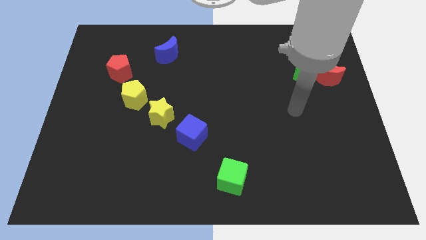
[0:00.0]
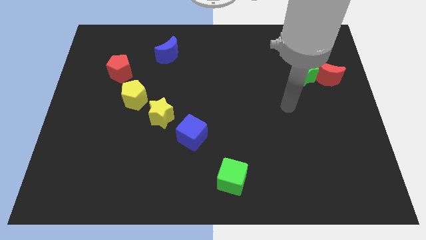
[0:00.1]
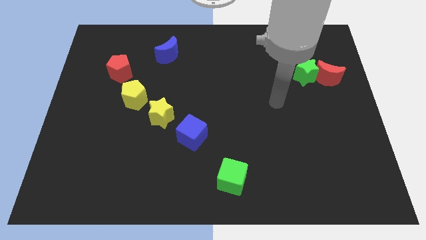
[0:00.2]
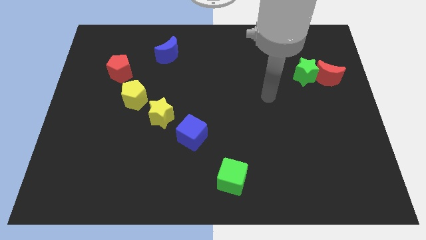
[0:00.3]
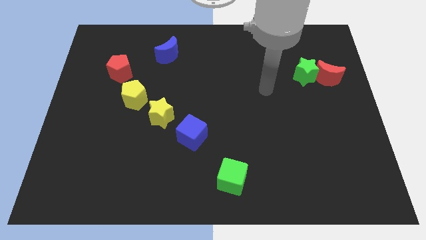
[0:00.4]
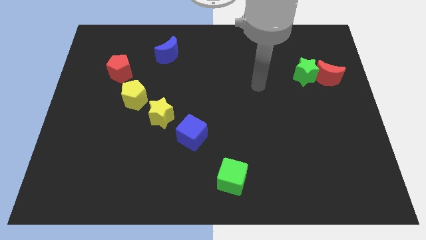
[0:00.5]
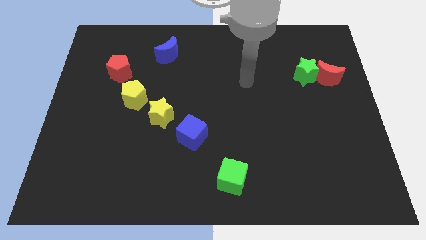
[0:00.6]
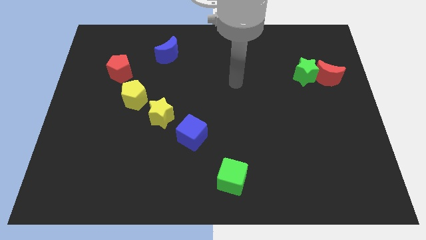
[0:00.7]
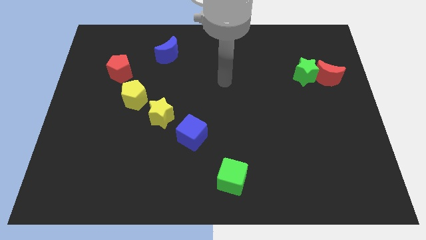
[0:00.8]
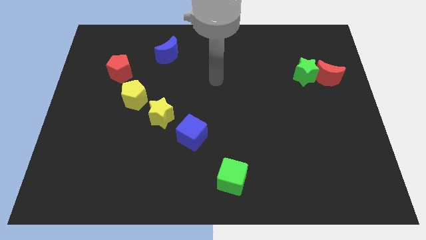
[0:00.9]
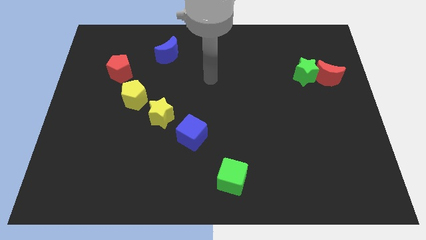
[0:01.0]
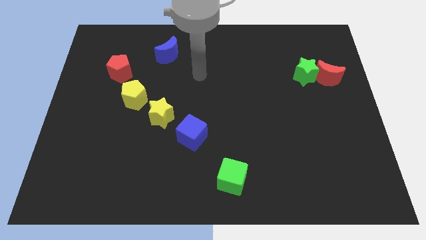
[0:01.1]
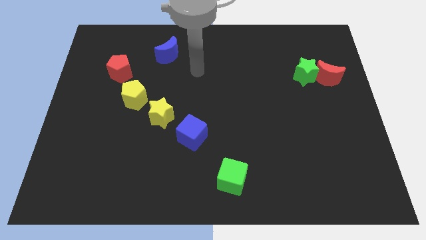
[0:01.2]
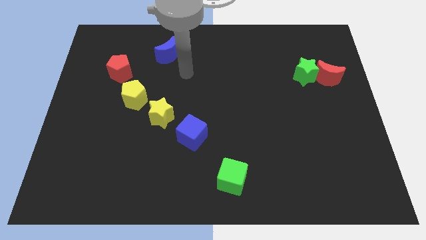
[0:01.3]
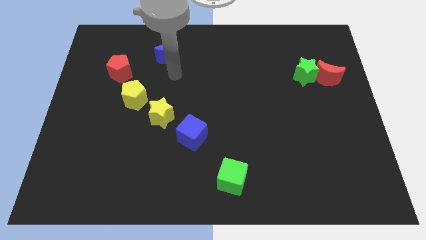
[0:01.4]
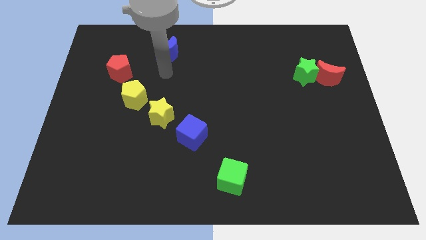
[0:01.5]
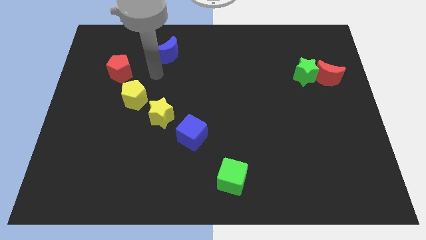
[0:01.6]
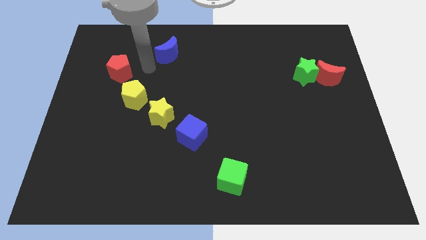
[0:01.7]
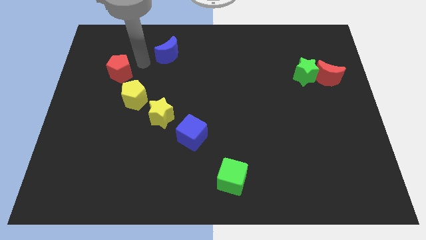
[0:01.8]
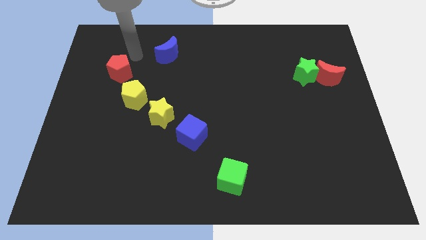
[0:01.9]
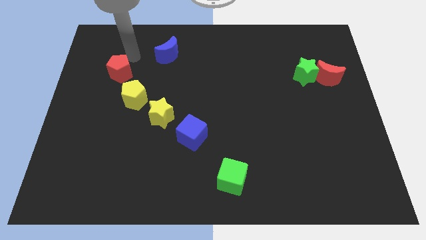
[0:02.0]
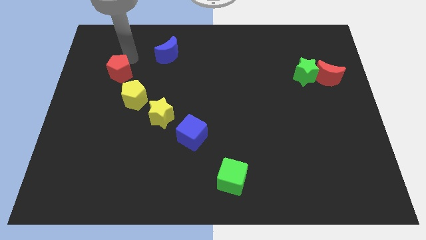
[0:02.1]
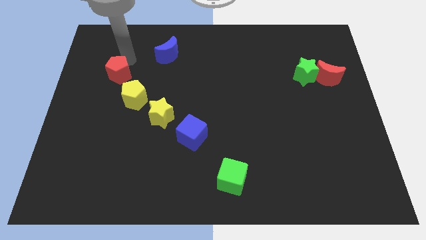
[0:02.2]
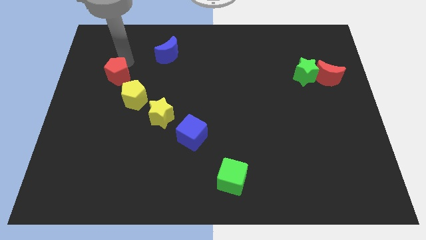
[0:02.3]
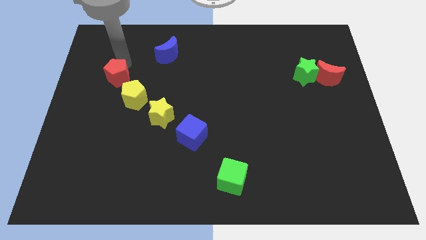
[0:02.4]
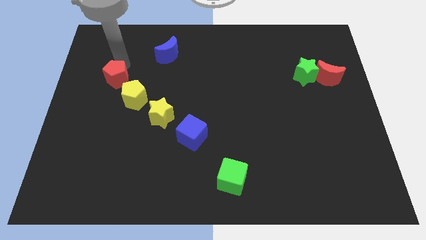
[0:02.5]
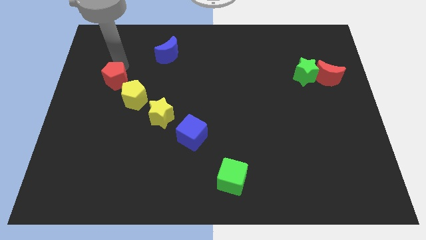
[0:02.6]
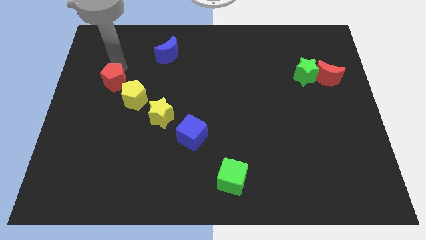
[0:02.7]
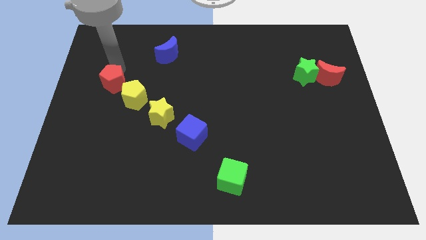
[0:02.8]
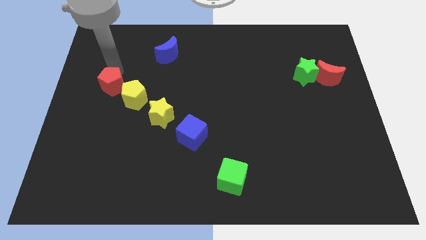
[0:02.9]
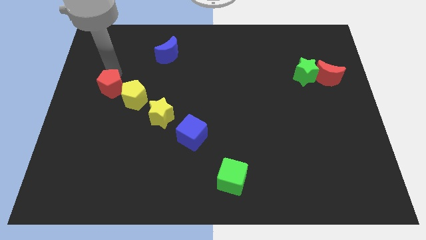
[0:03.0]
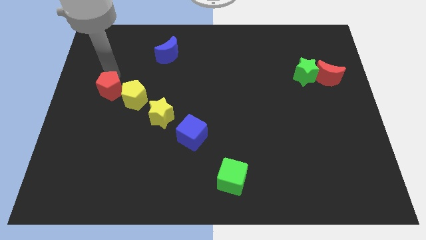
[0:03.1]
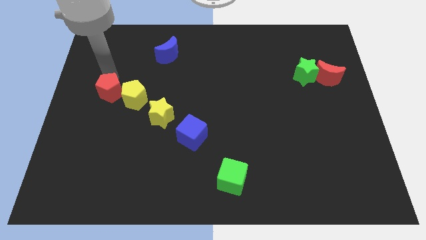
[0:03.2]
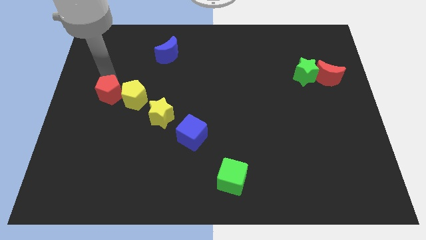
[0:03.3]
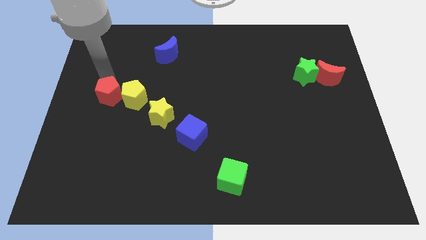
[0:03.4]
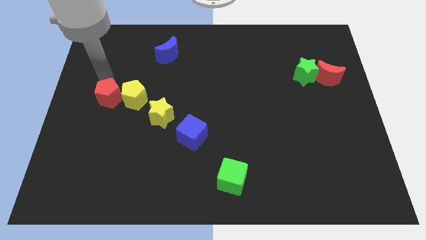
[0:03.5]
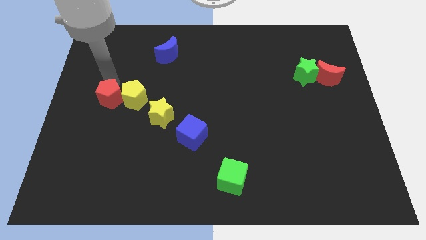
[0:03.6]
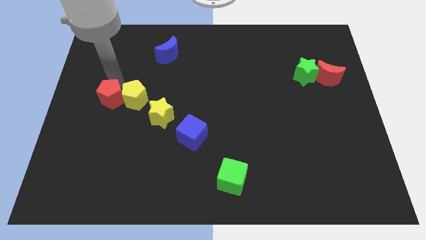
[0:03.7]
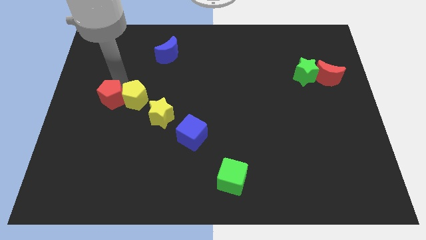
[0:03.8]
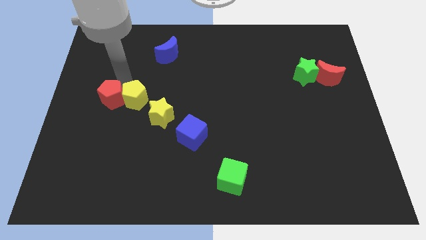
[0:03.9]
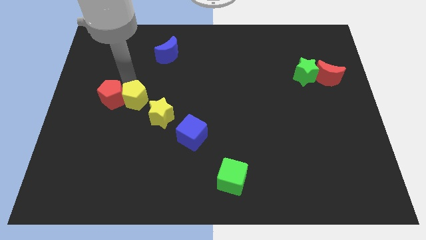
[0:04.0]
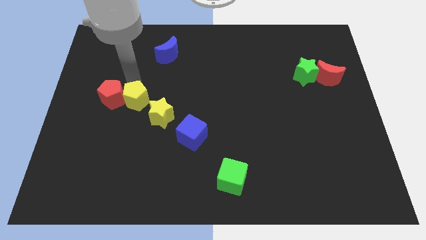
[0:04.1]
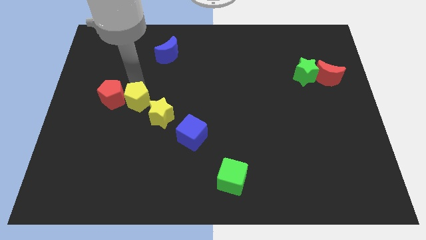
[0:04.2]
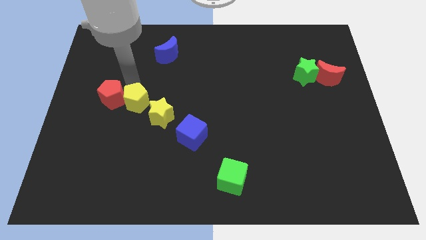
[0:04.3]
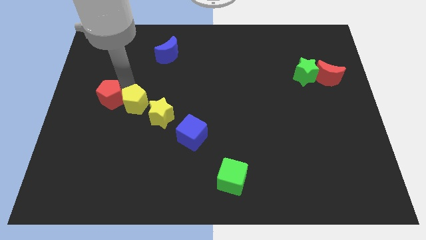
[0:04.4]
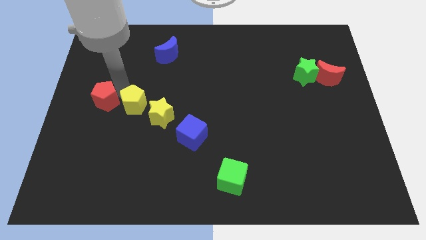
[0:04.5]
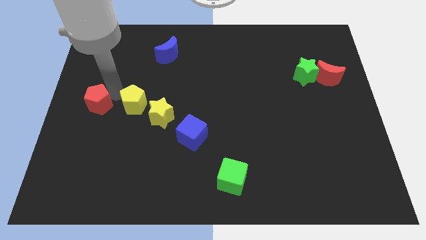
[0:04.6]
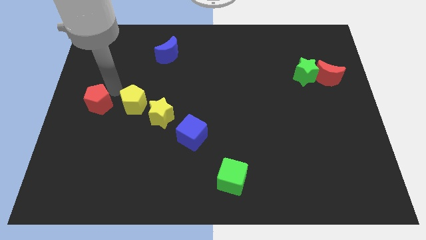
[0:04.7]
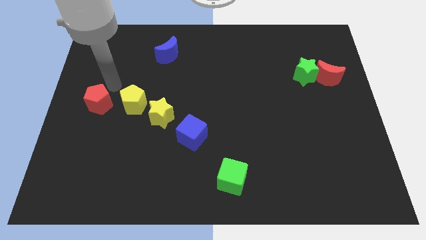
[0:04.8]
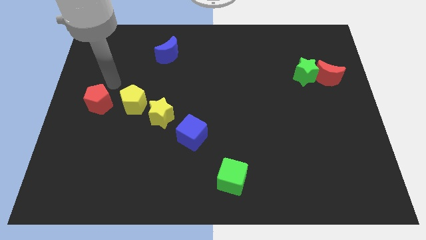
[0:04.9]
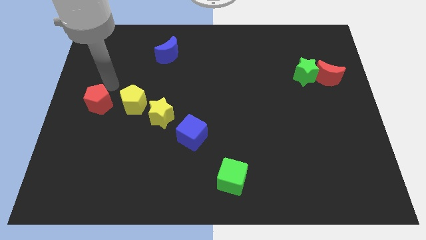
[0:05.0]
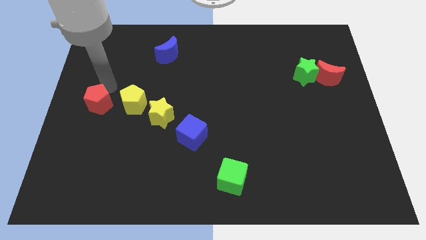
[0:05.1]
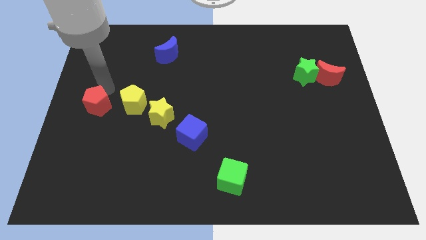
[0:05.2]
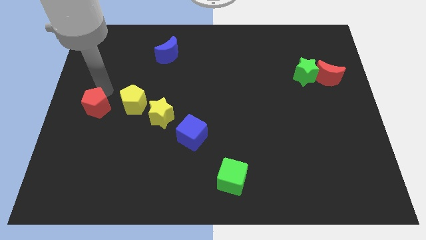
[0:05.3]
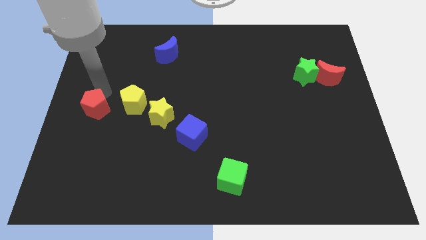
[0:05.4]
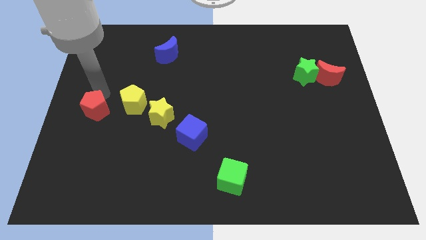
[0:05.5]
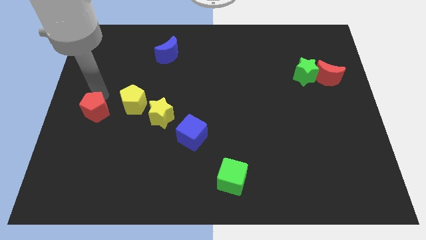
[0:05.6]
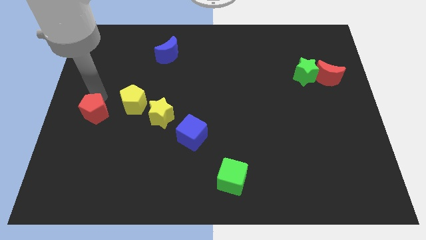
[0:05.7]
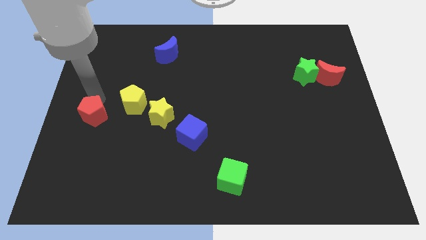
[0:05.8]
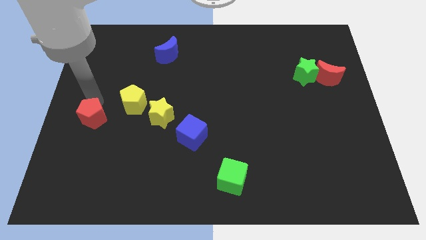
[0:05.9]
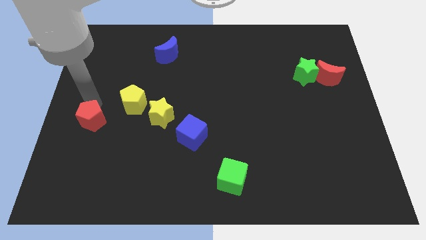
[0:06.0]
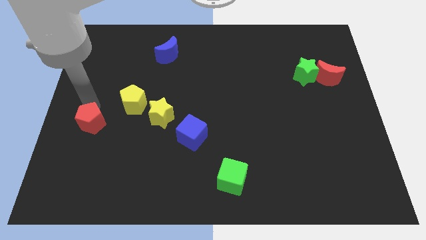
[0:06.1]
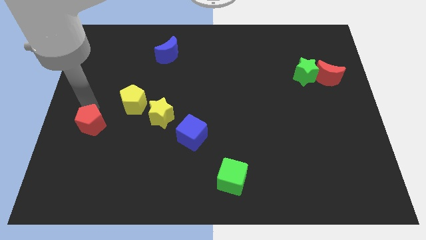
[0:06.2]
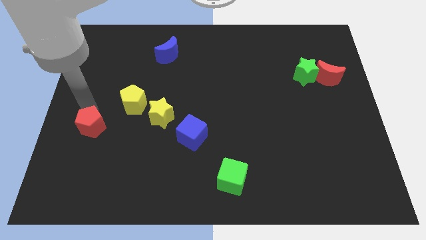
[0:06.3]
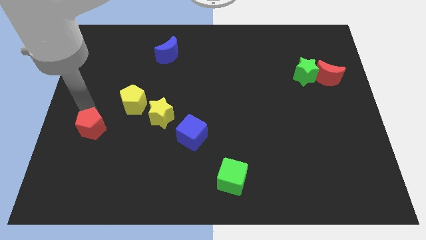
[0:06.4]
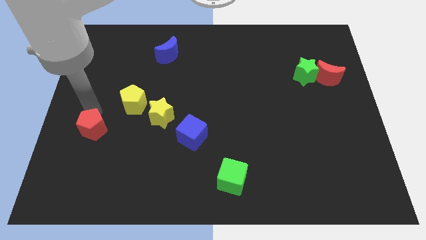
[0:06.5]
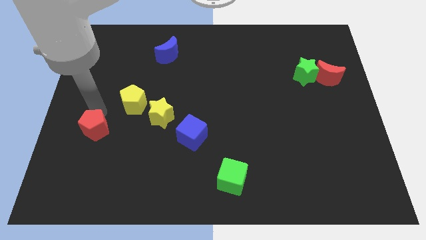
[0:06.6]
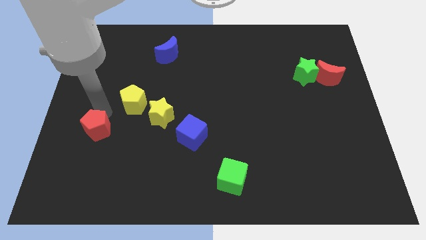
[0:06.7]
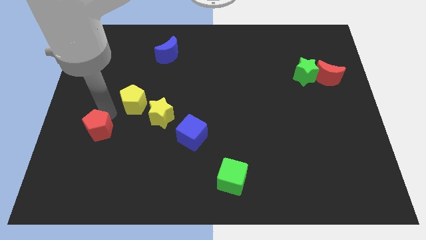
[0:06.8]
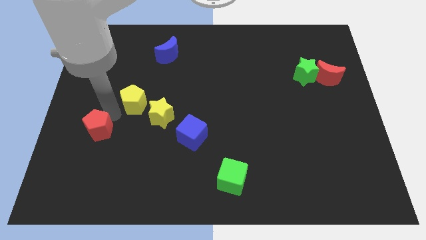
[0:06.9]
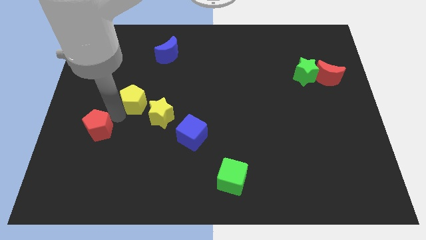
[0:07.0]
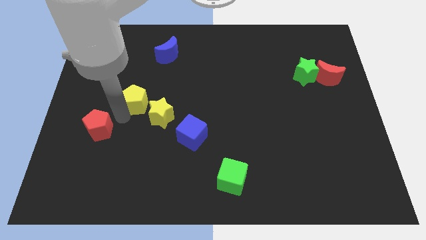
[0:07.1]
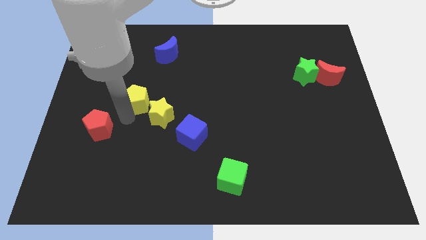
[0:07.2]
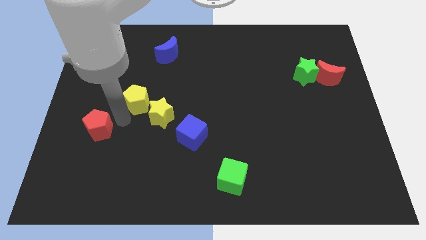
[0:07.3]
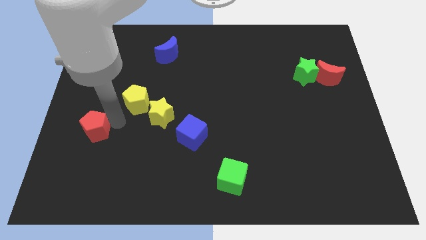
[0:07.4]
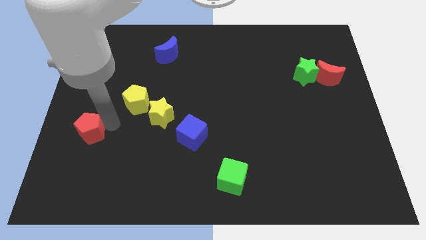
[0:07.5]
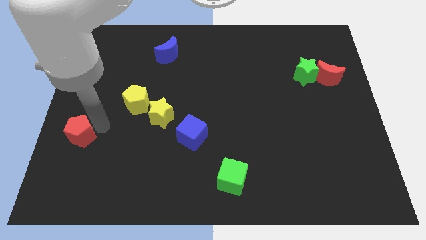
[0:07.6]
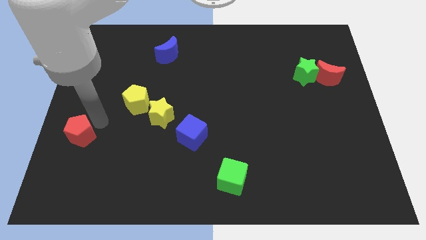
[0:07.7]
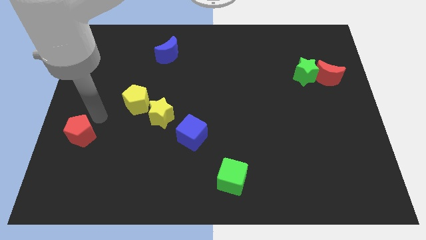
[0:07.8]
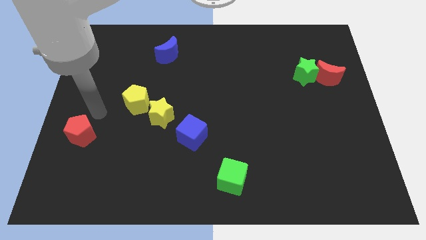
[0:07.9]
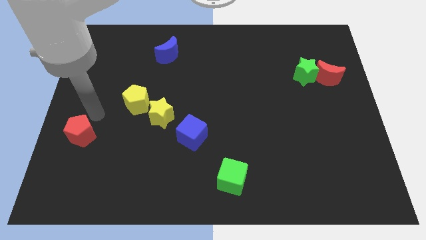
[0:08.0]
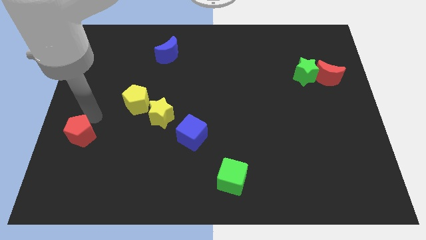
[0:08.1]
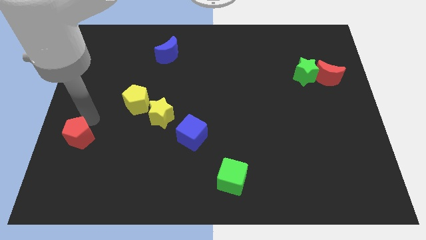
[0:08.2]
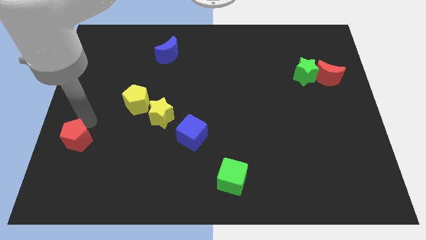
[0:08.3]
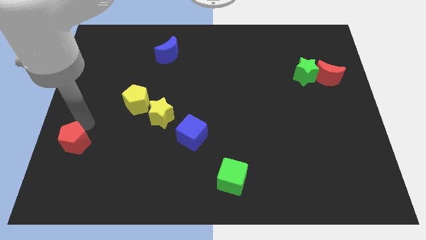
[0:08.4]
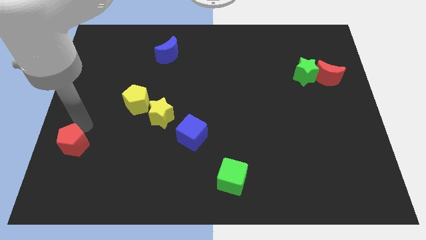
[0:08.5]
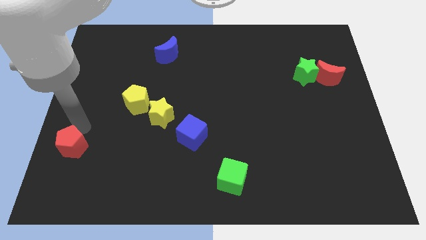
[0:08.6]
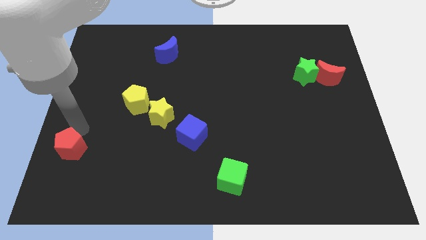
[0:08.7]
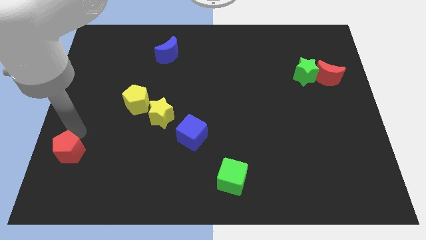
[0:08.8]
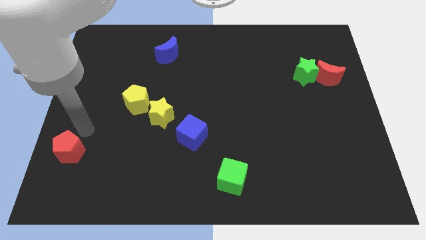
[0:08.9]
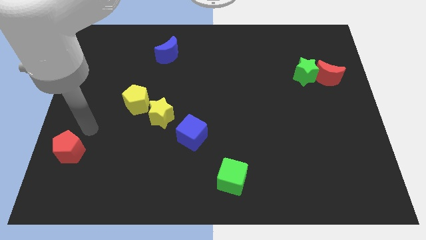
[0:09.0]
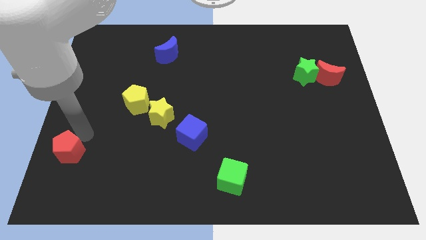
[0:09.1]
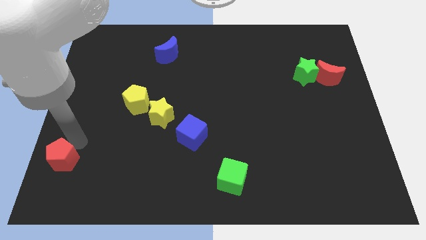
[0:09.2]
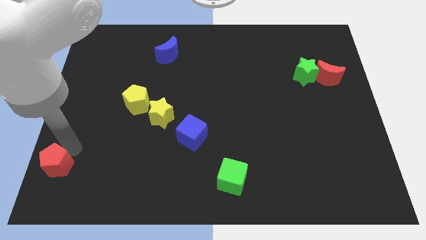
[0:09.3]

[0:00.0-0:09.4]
push the red pentagon to the bottom left corner
